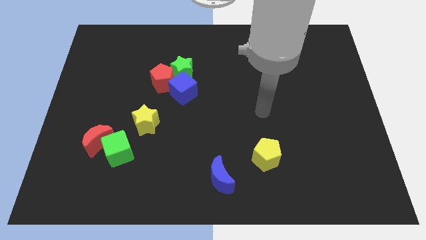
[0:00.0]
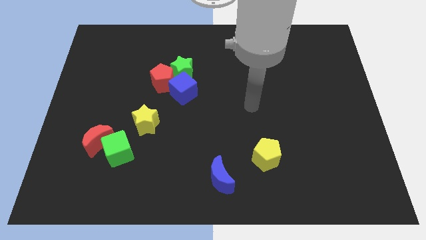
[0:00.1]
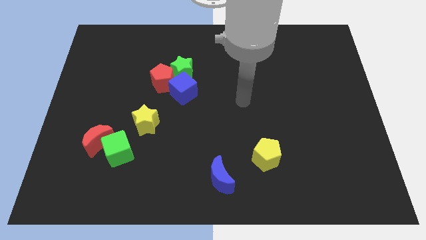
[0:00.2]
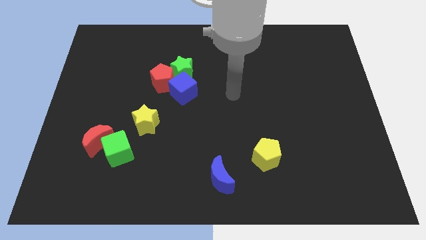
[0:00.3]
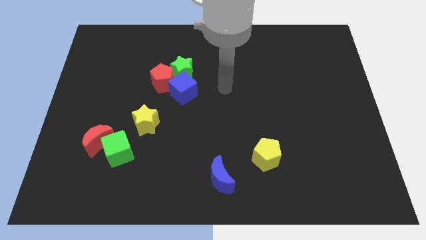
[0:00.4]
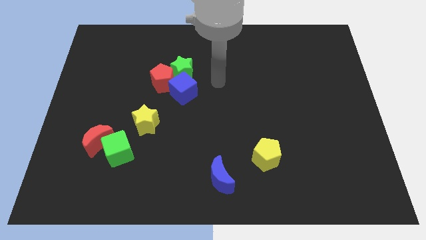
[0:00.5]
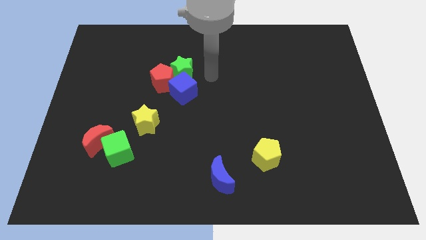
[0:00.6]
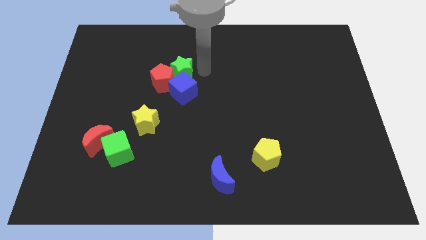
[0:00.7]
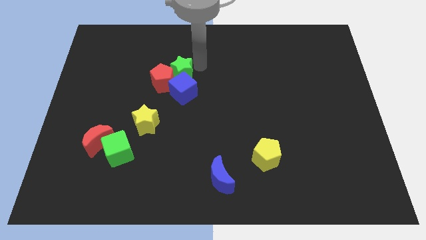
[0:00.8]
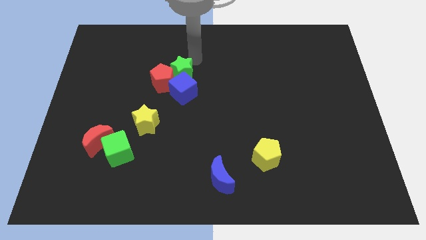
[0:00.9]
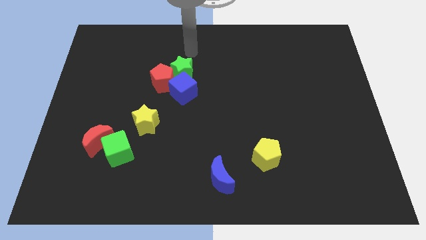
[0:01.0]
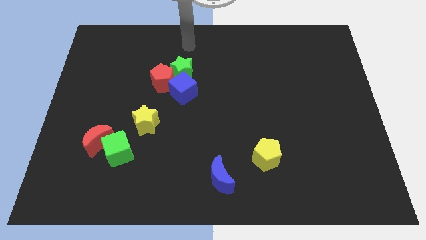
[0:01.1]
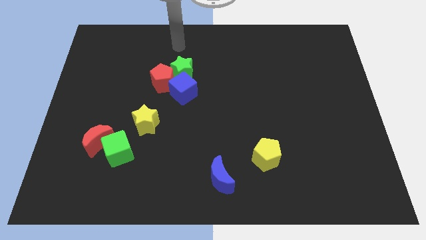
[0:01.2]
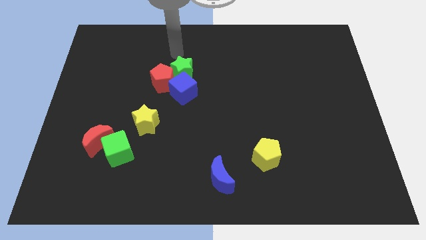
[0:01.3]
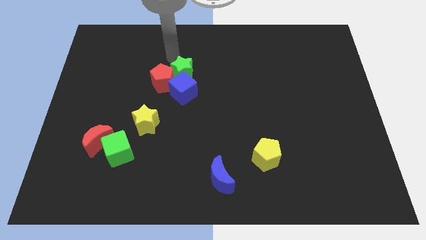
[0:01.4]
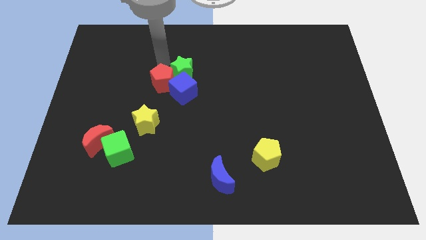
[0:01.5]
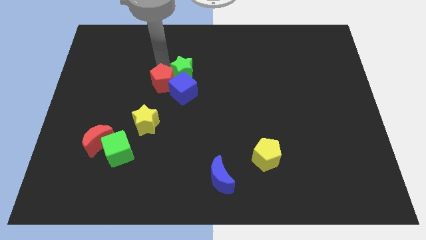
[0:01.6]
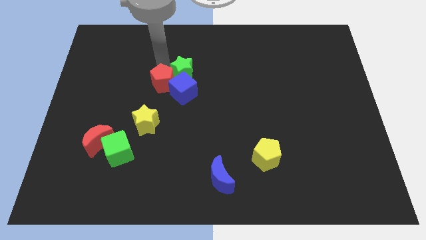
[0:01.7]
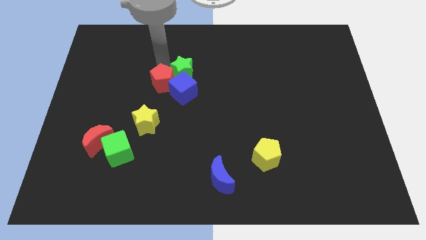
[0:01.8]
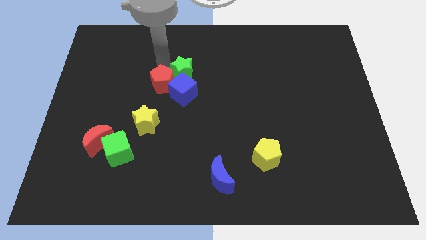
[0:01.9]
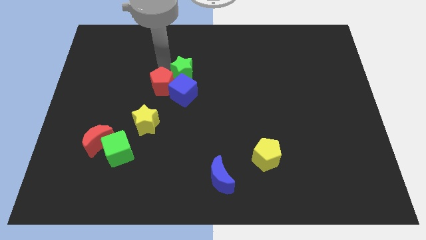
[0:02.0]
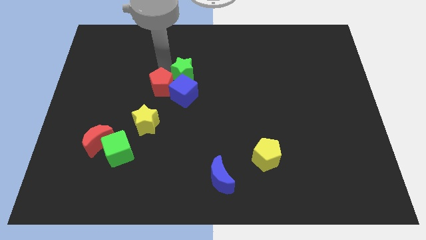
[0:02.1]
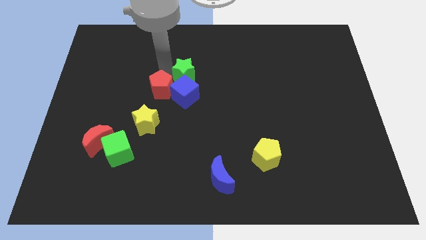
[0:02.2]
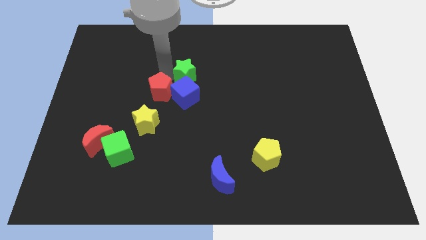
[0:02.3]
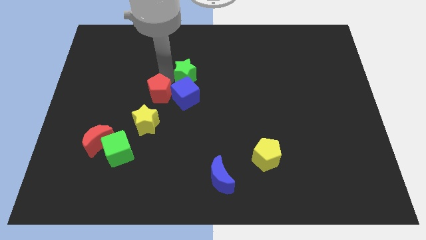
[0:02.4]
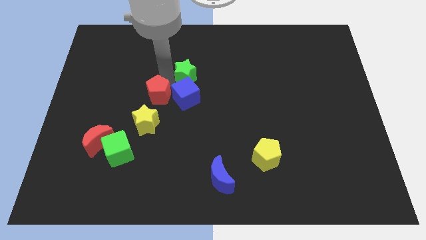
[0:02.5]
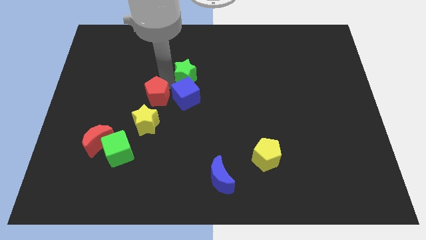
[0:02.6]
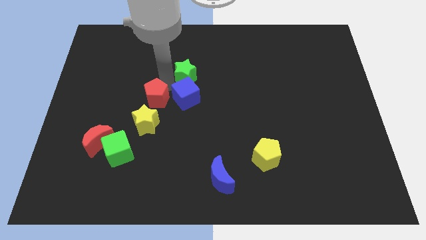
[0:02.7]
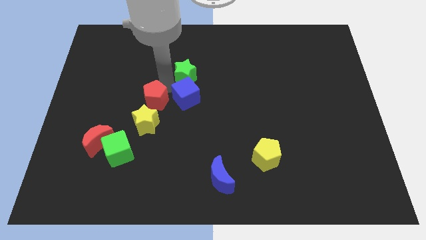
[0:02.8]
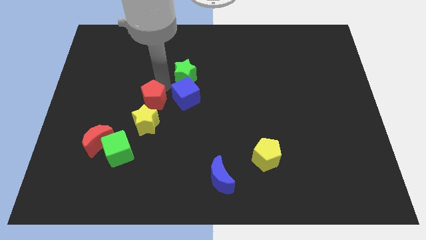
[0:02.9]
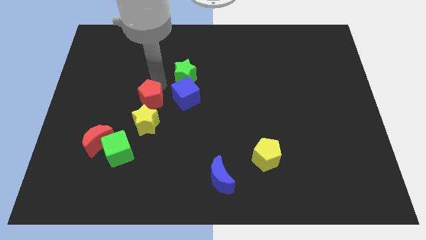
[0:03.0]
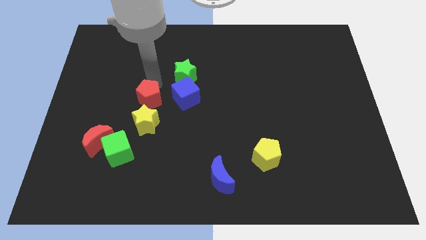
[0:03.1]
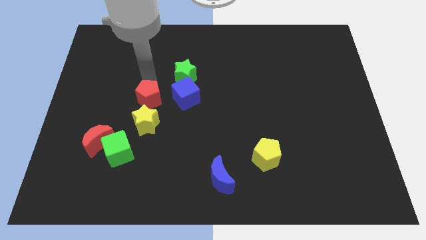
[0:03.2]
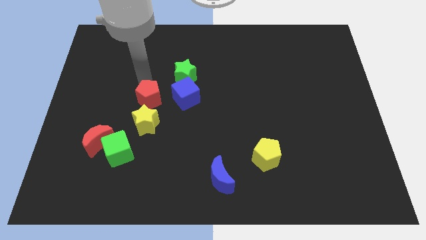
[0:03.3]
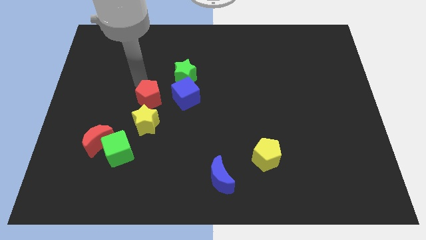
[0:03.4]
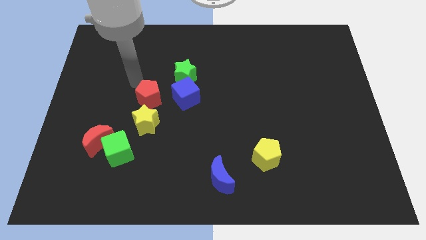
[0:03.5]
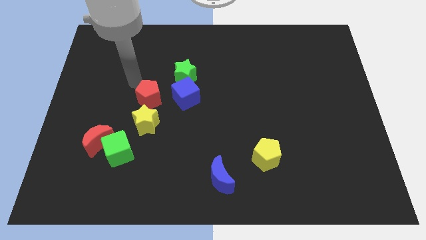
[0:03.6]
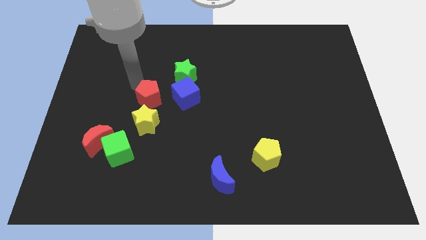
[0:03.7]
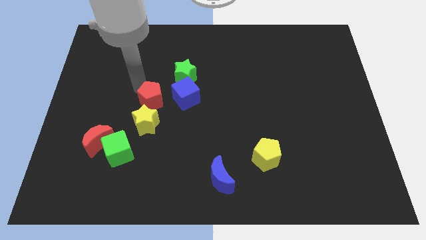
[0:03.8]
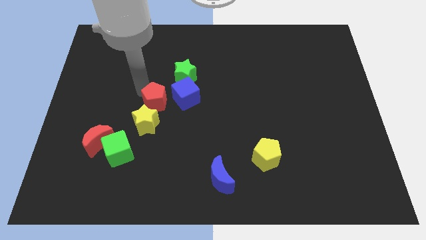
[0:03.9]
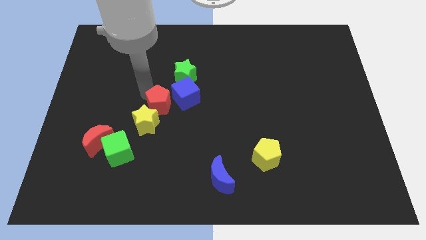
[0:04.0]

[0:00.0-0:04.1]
push the red pentagon a bit downwards

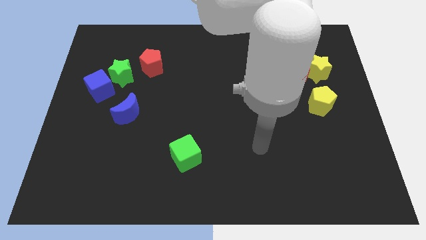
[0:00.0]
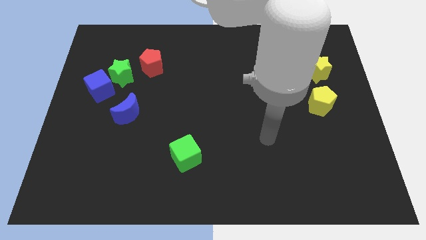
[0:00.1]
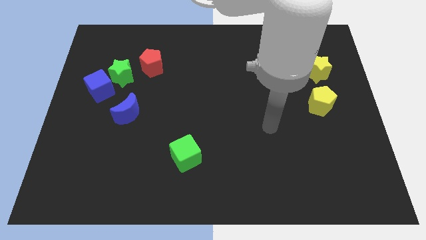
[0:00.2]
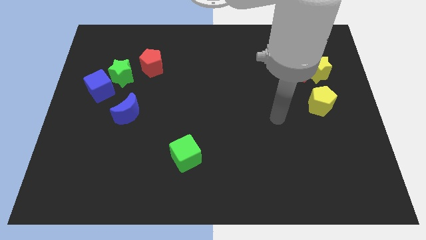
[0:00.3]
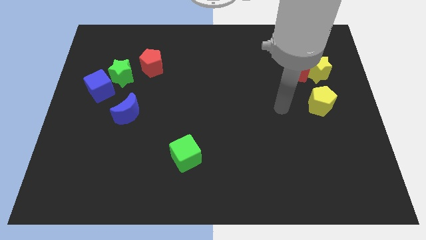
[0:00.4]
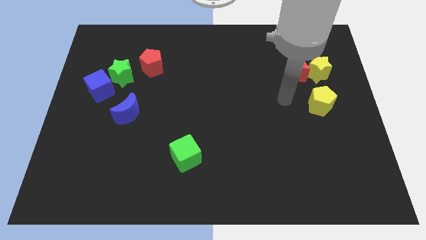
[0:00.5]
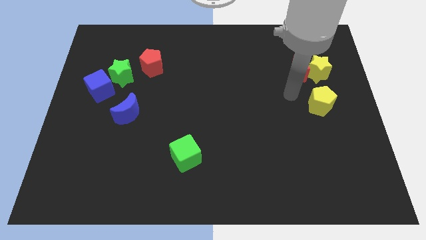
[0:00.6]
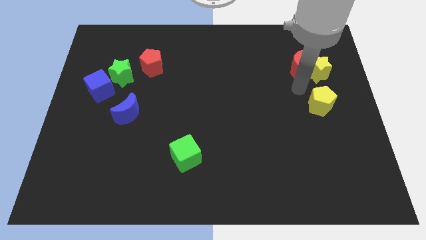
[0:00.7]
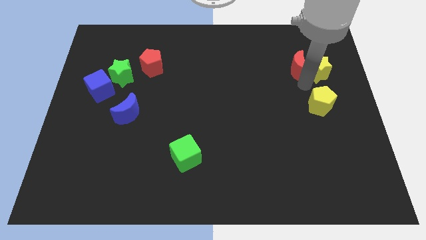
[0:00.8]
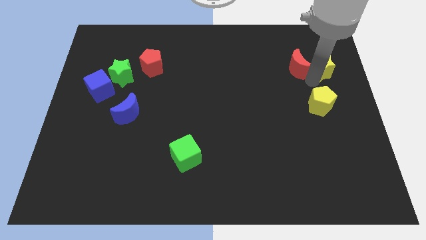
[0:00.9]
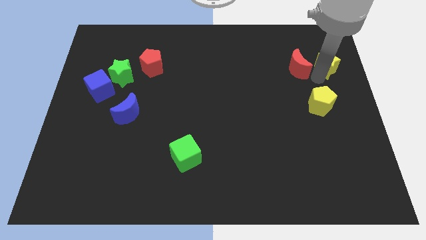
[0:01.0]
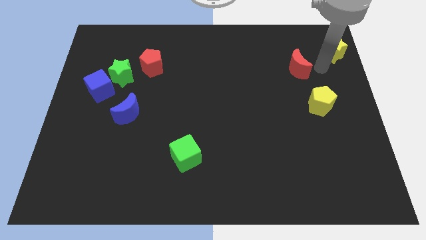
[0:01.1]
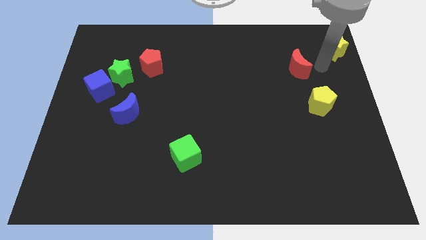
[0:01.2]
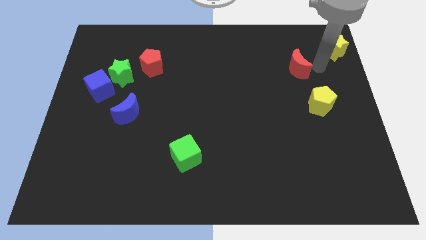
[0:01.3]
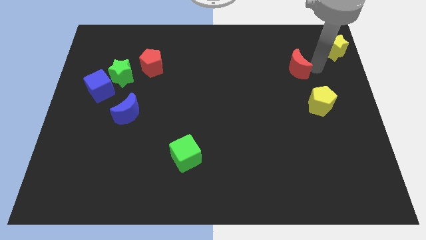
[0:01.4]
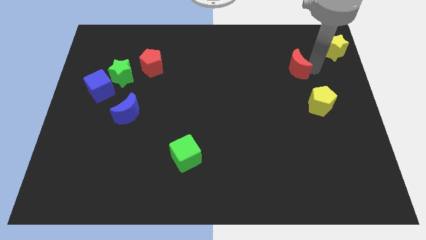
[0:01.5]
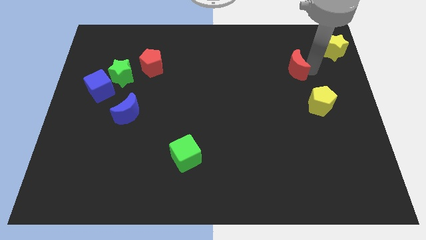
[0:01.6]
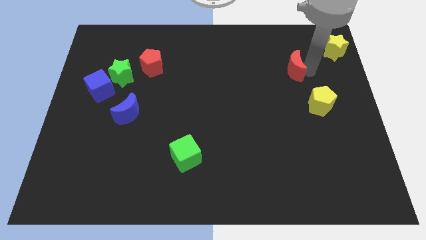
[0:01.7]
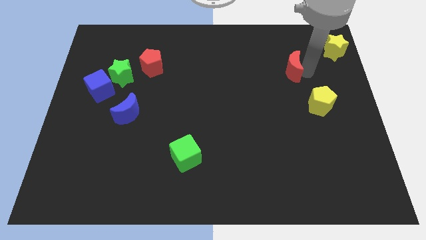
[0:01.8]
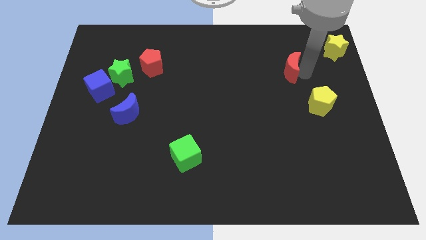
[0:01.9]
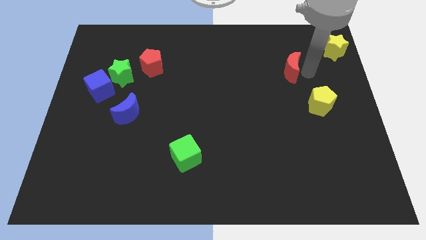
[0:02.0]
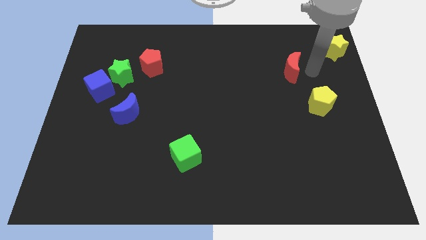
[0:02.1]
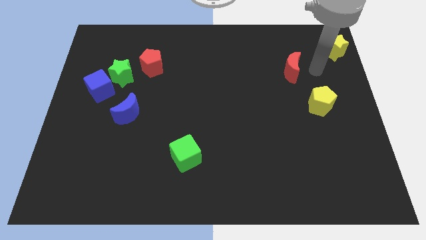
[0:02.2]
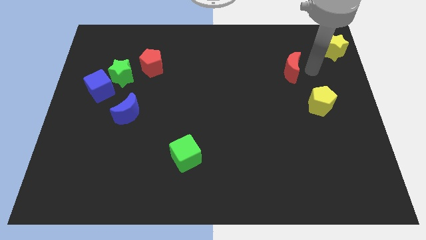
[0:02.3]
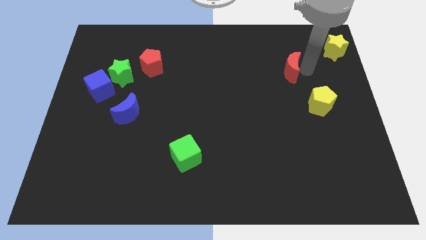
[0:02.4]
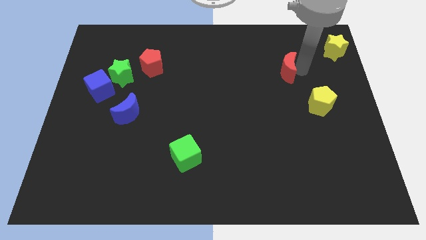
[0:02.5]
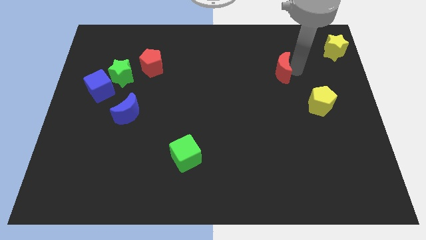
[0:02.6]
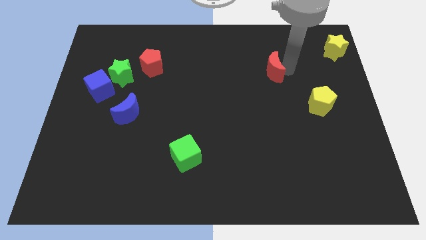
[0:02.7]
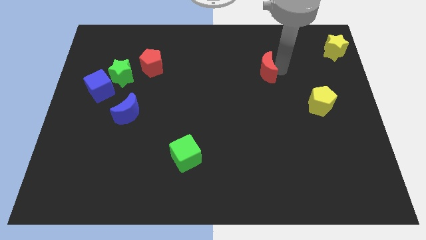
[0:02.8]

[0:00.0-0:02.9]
push the red moon somewhat to the left

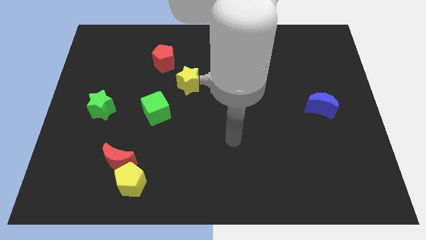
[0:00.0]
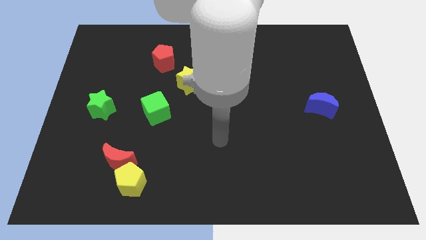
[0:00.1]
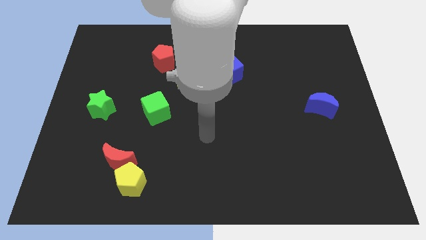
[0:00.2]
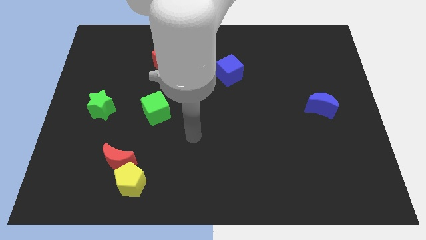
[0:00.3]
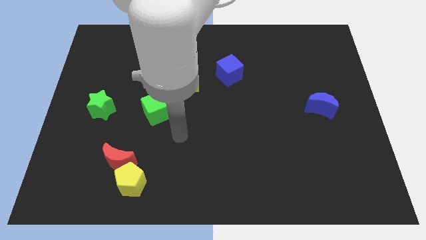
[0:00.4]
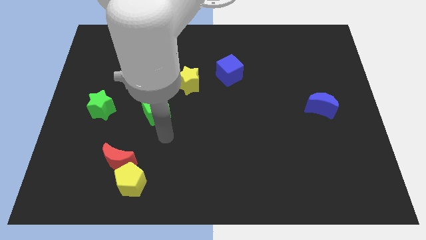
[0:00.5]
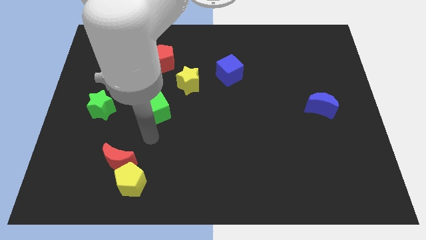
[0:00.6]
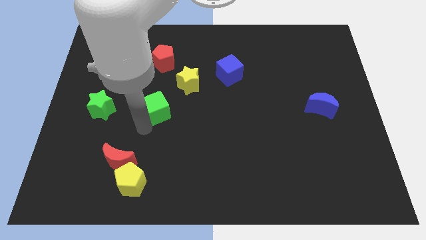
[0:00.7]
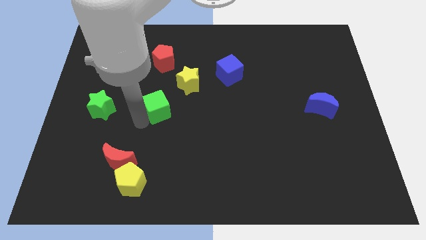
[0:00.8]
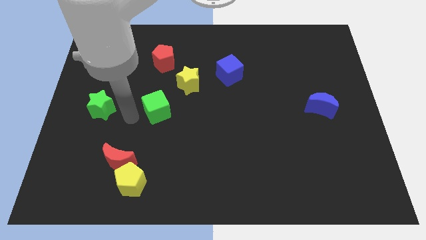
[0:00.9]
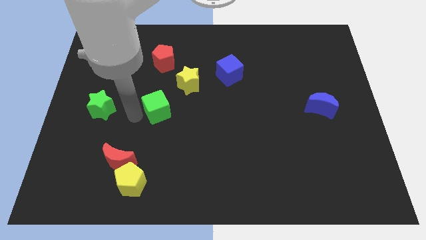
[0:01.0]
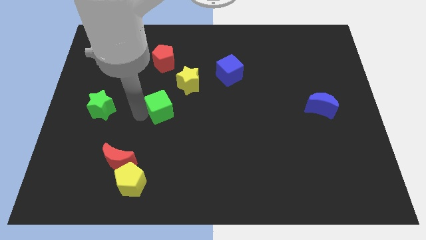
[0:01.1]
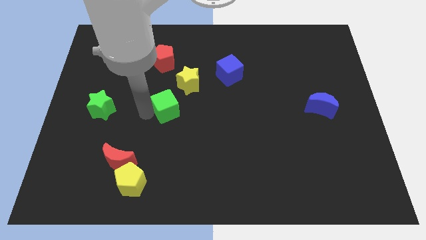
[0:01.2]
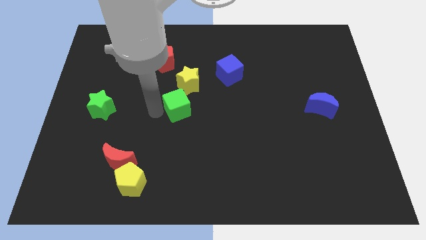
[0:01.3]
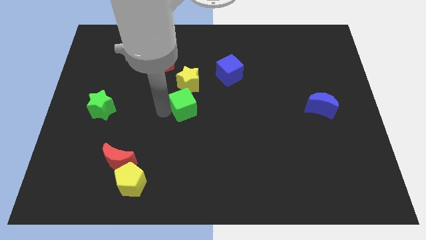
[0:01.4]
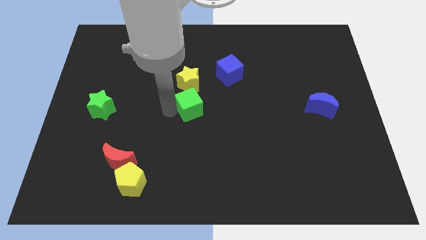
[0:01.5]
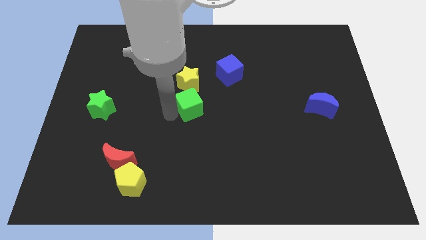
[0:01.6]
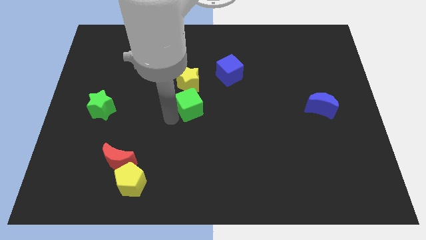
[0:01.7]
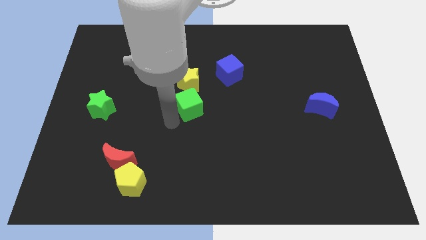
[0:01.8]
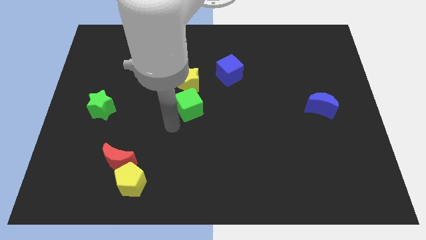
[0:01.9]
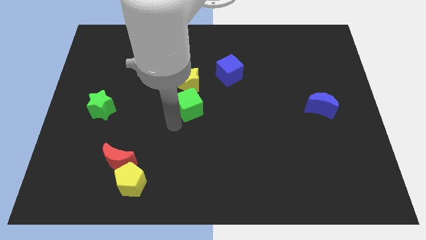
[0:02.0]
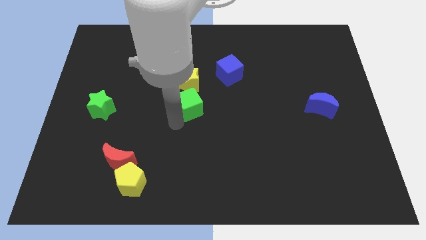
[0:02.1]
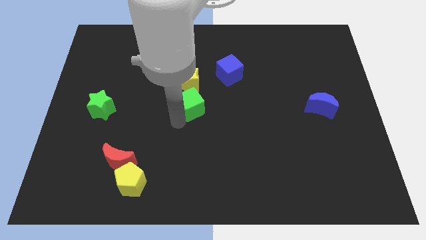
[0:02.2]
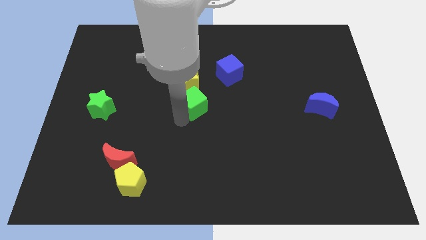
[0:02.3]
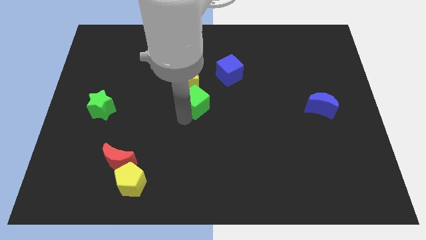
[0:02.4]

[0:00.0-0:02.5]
slightly slide the green cube upwards and to the right diagonally
